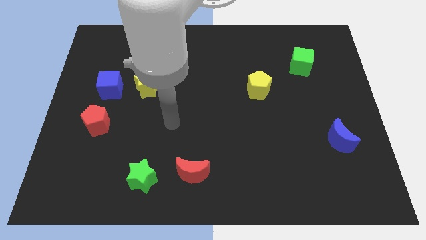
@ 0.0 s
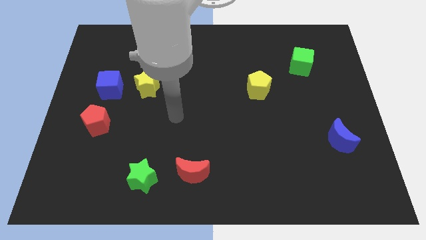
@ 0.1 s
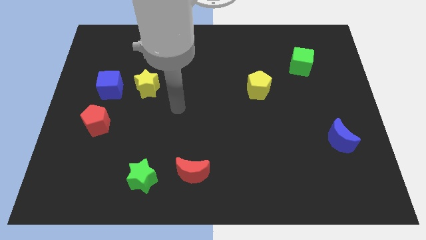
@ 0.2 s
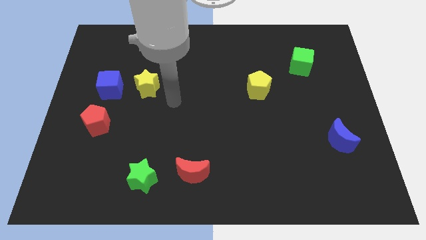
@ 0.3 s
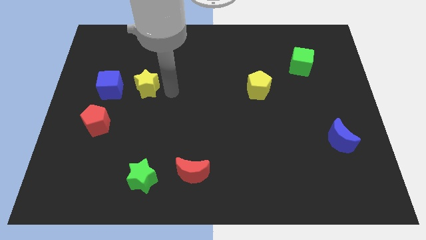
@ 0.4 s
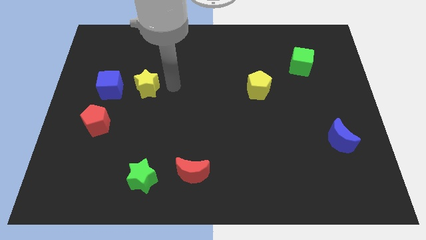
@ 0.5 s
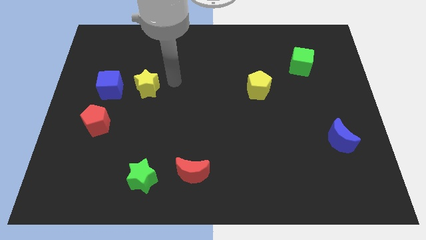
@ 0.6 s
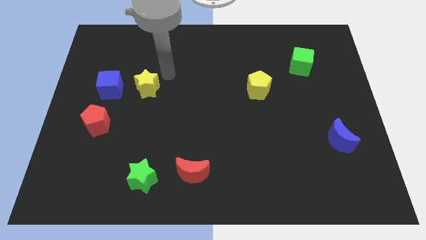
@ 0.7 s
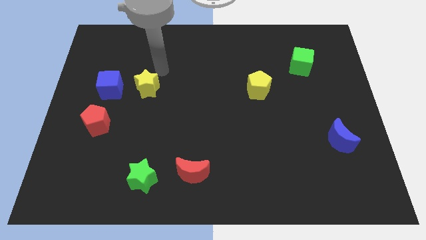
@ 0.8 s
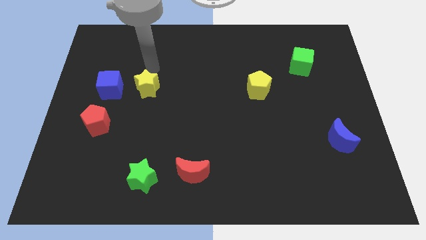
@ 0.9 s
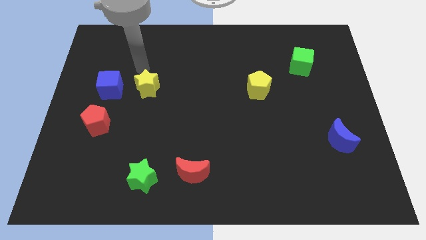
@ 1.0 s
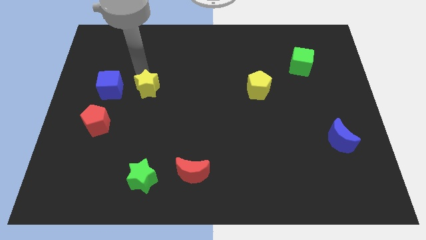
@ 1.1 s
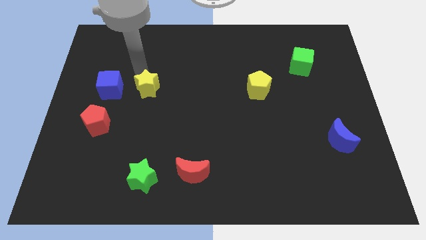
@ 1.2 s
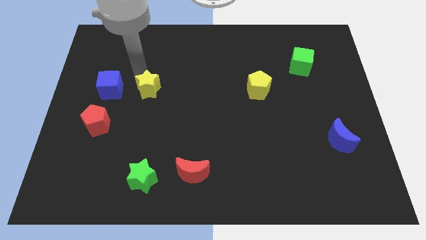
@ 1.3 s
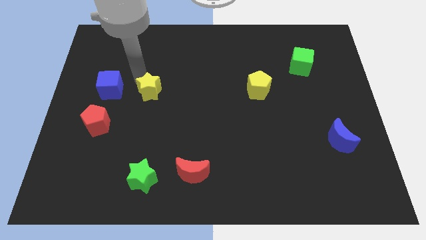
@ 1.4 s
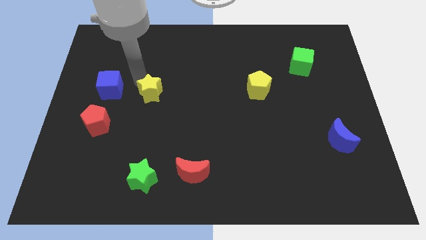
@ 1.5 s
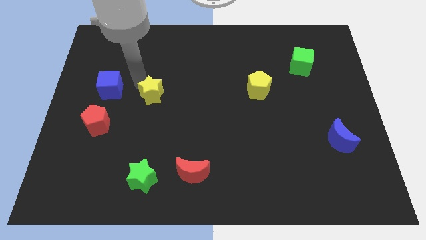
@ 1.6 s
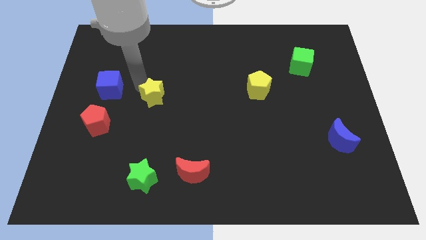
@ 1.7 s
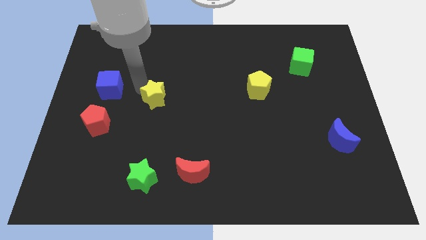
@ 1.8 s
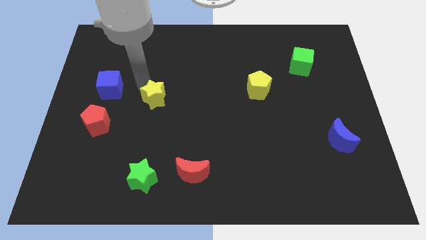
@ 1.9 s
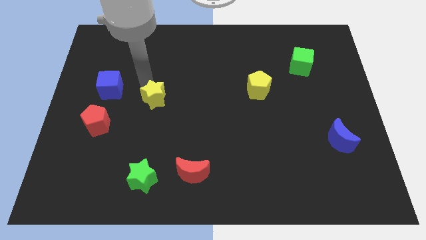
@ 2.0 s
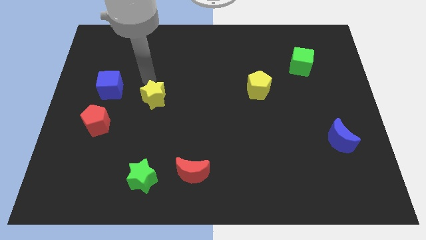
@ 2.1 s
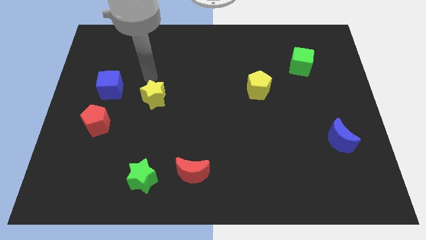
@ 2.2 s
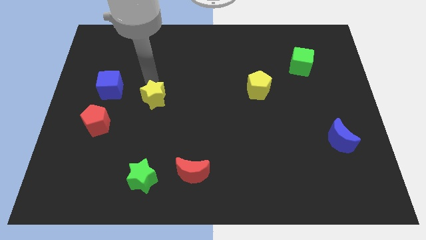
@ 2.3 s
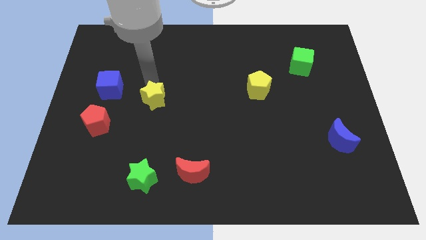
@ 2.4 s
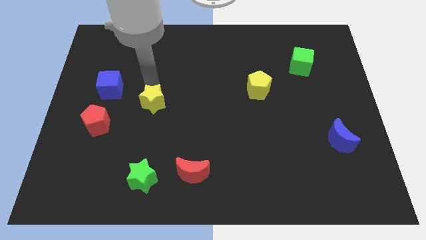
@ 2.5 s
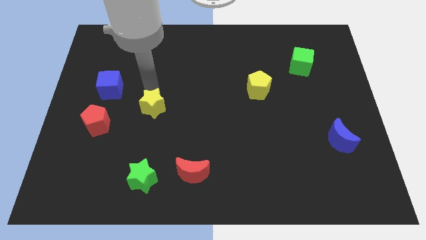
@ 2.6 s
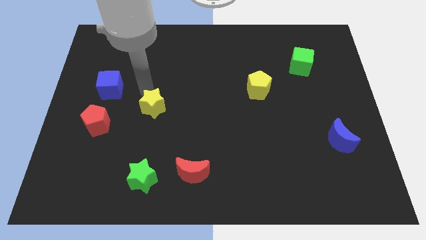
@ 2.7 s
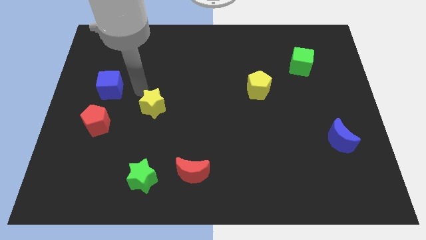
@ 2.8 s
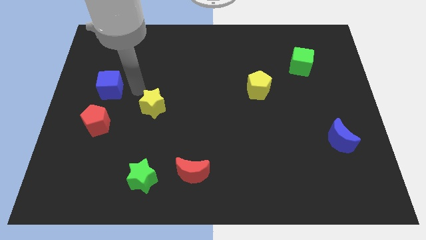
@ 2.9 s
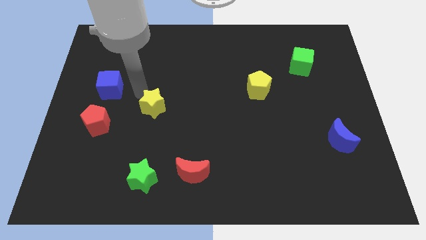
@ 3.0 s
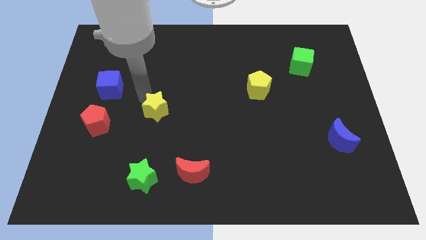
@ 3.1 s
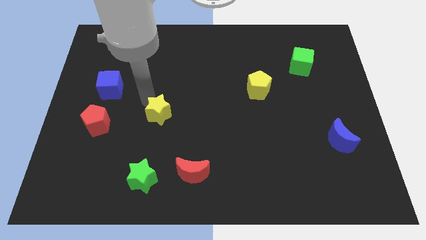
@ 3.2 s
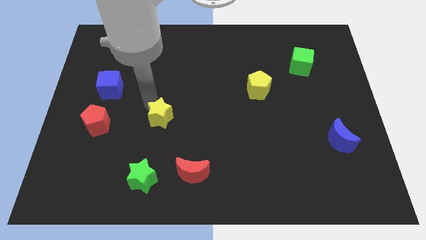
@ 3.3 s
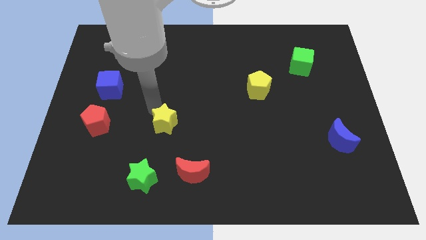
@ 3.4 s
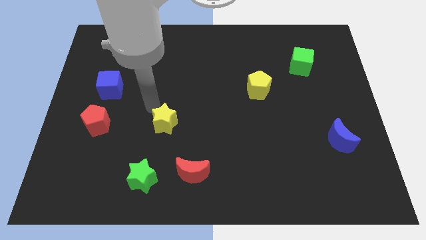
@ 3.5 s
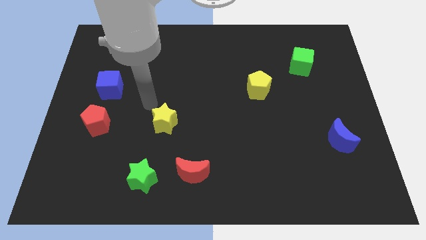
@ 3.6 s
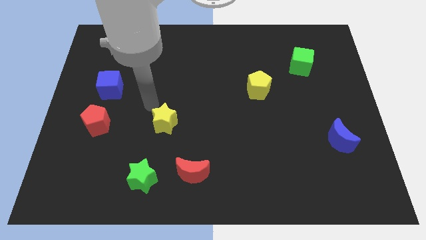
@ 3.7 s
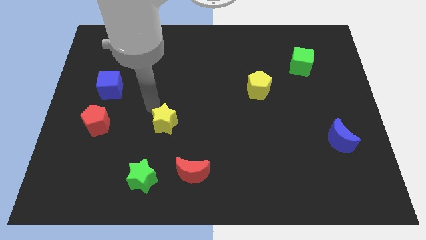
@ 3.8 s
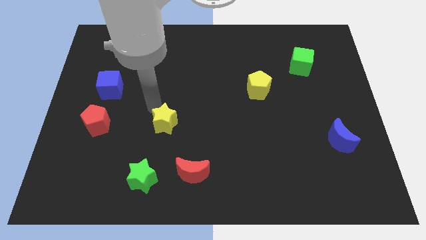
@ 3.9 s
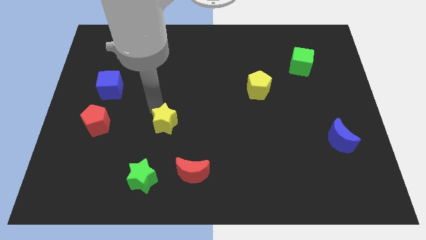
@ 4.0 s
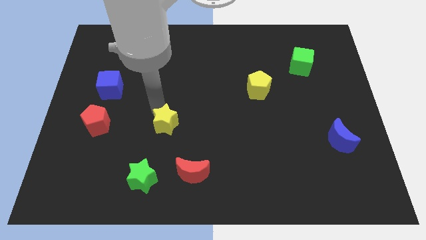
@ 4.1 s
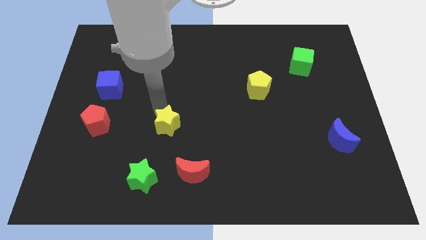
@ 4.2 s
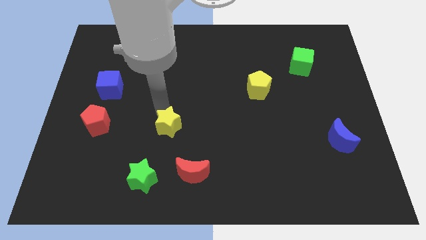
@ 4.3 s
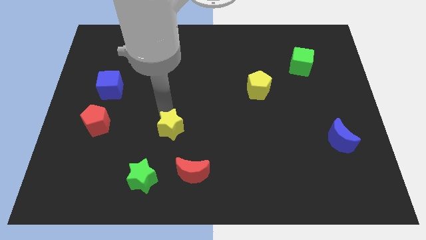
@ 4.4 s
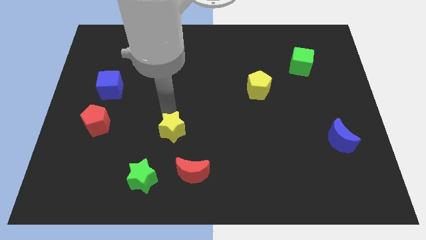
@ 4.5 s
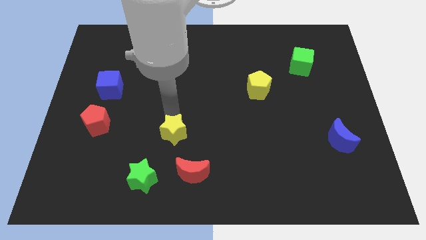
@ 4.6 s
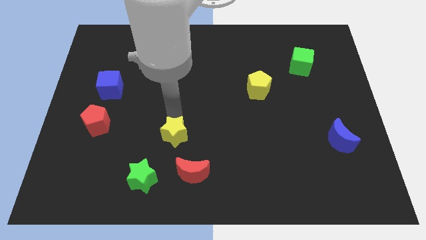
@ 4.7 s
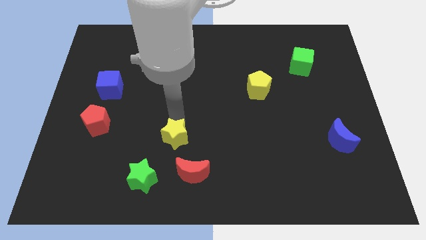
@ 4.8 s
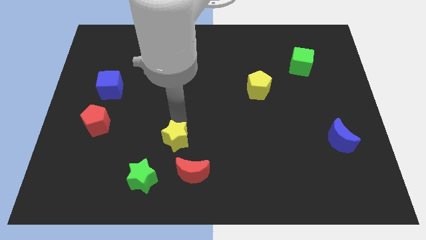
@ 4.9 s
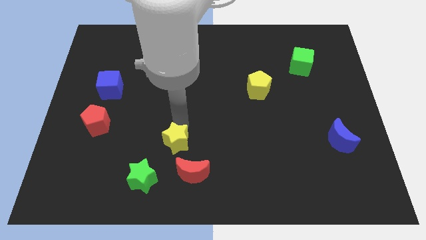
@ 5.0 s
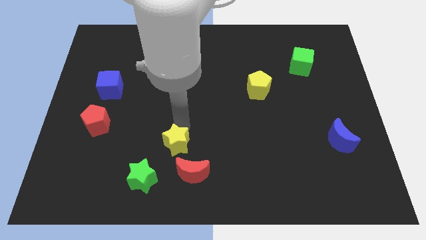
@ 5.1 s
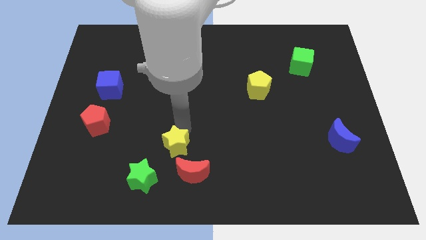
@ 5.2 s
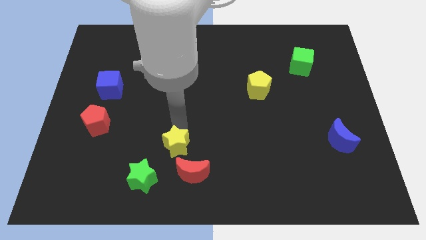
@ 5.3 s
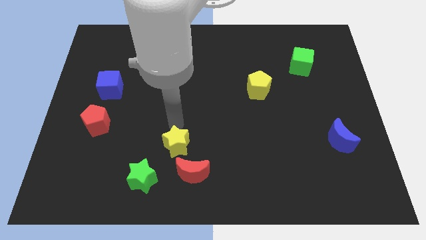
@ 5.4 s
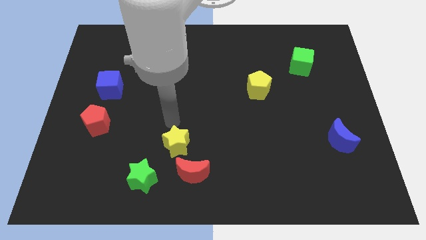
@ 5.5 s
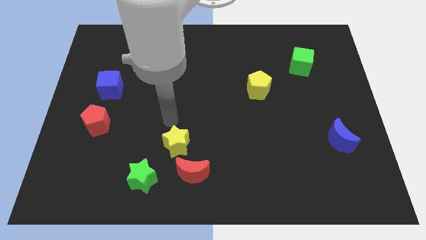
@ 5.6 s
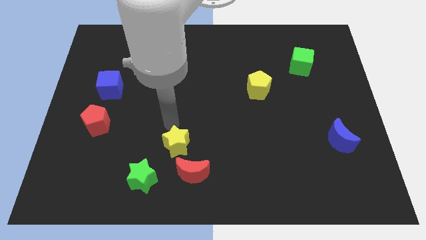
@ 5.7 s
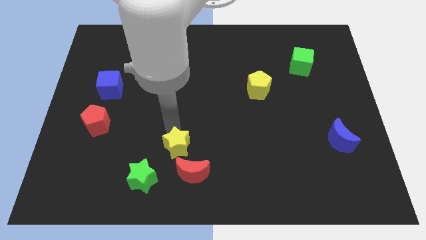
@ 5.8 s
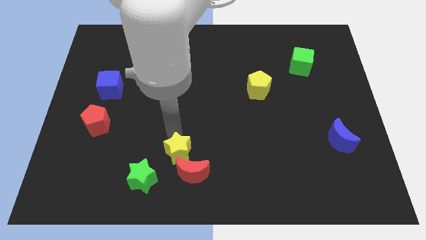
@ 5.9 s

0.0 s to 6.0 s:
move the yellow star next to the red moon

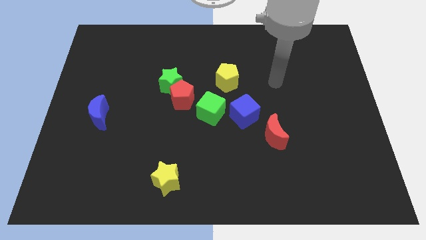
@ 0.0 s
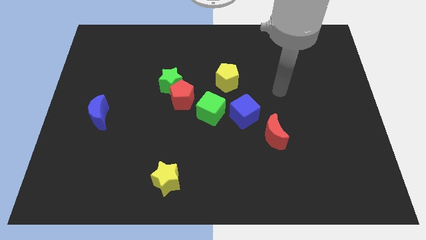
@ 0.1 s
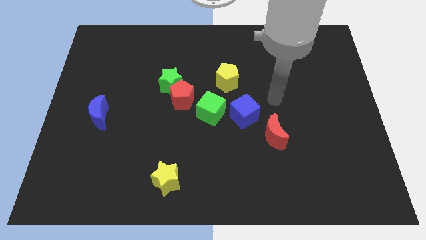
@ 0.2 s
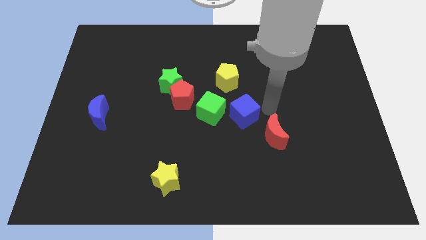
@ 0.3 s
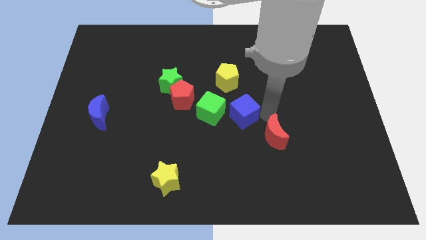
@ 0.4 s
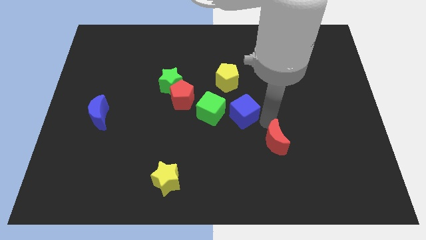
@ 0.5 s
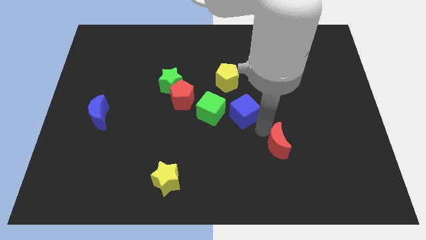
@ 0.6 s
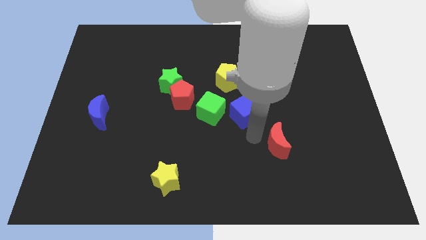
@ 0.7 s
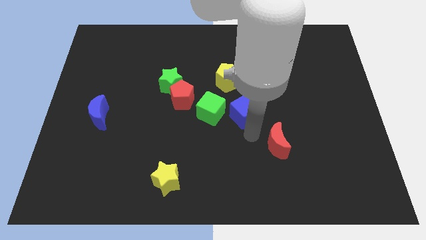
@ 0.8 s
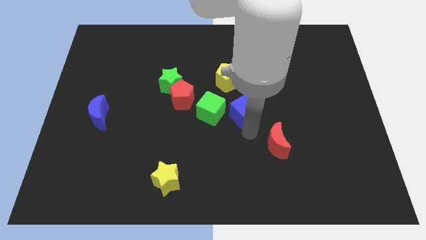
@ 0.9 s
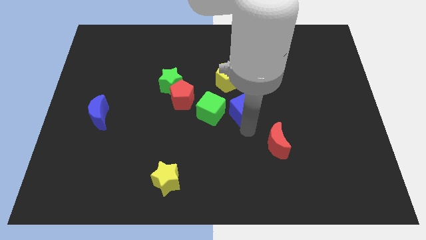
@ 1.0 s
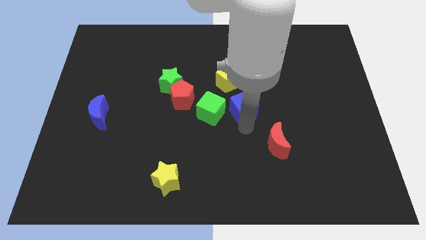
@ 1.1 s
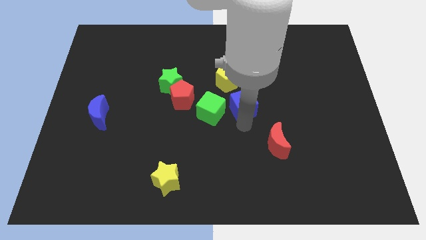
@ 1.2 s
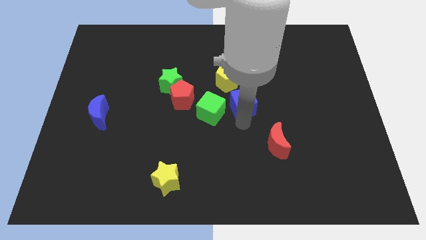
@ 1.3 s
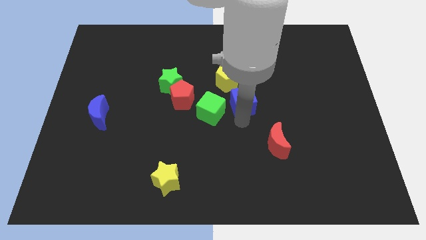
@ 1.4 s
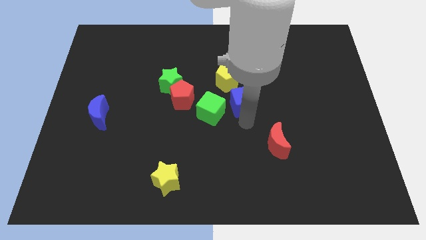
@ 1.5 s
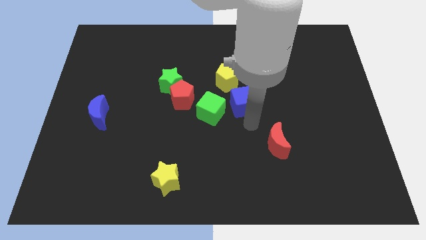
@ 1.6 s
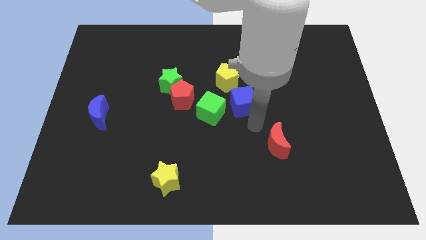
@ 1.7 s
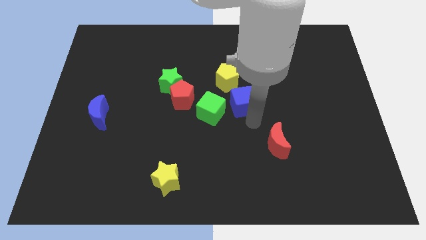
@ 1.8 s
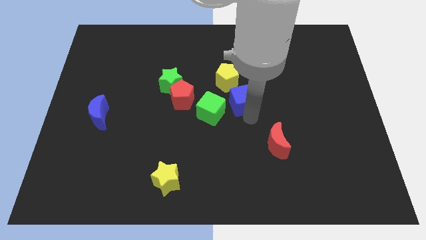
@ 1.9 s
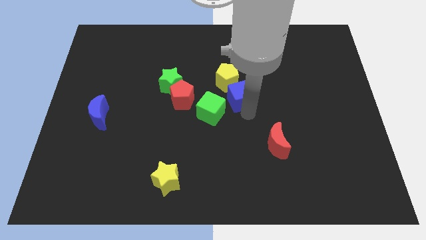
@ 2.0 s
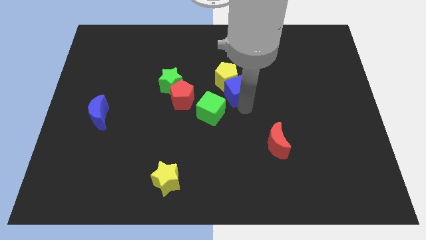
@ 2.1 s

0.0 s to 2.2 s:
put the blue cube next to the yellow pentagon
